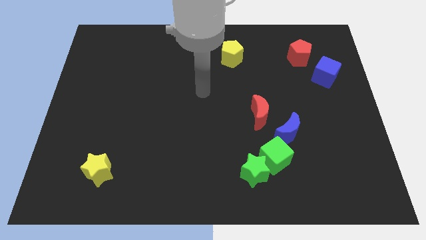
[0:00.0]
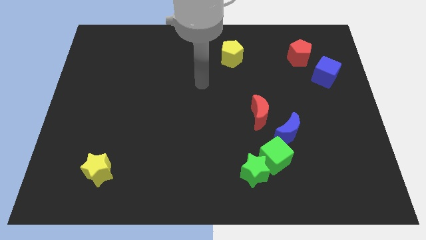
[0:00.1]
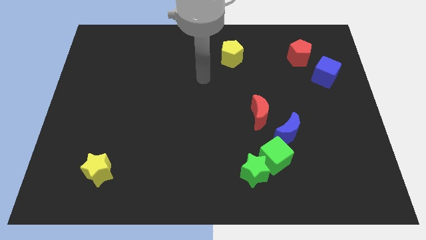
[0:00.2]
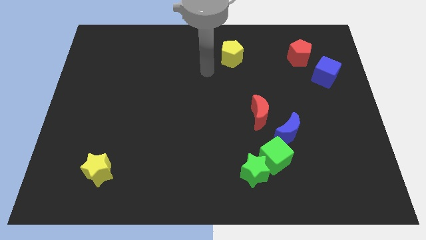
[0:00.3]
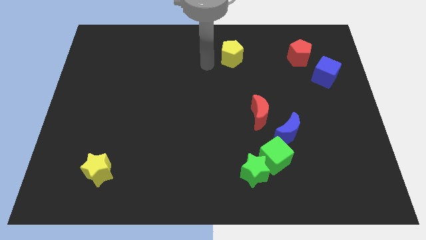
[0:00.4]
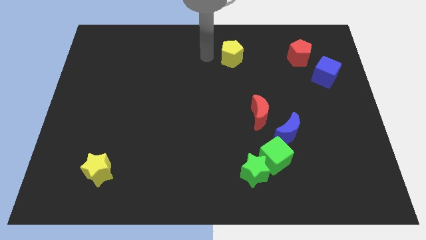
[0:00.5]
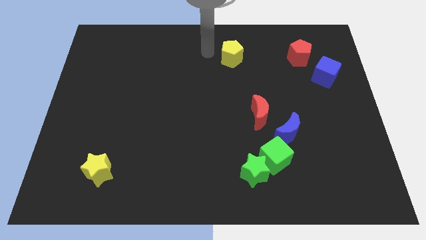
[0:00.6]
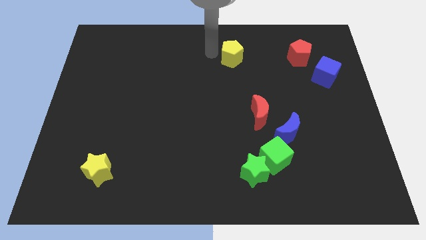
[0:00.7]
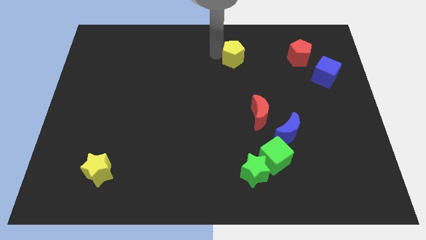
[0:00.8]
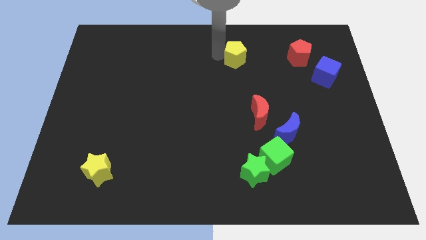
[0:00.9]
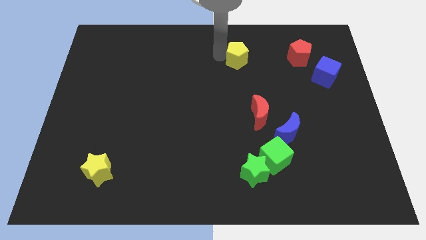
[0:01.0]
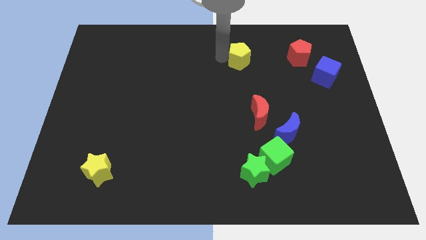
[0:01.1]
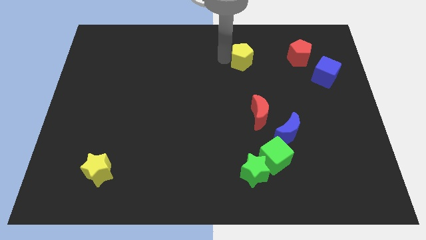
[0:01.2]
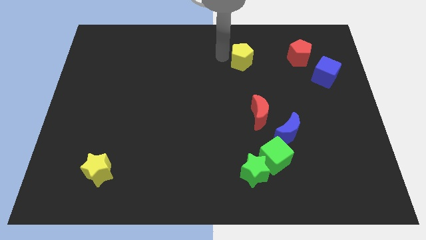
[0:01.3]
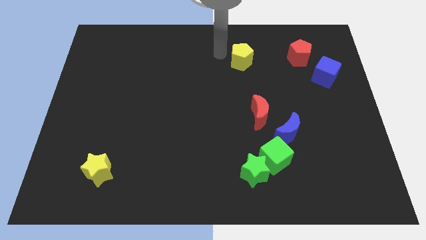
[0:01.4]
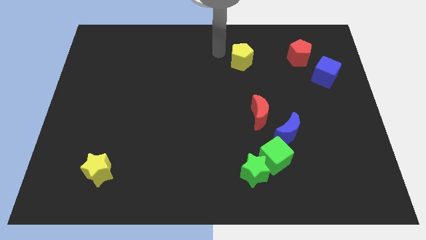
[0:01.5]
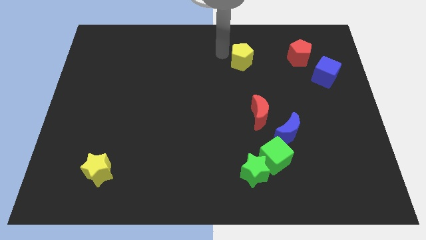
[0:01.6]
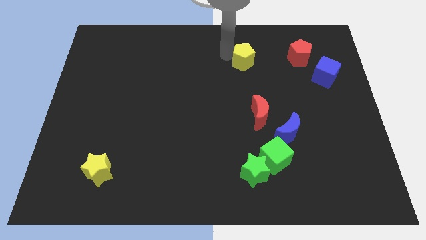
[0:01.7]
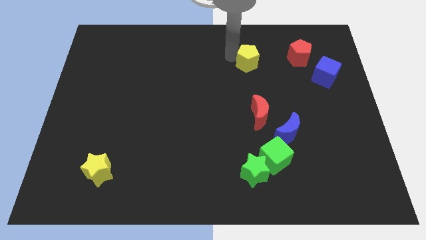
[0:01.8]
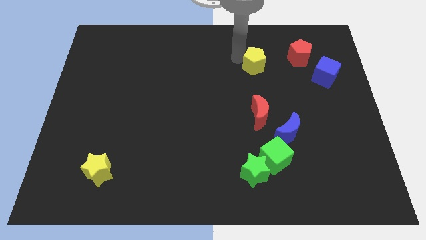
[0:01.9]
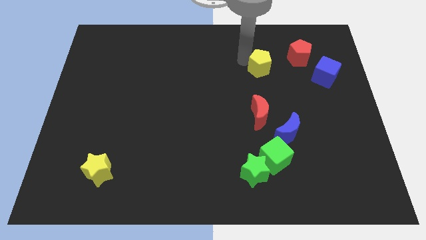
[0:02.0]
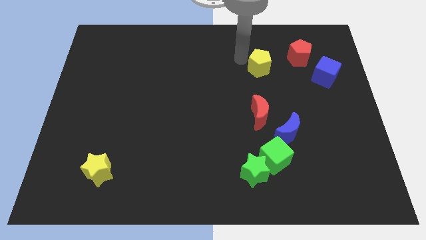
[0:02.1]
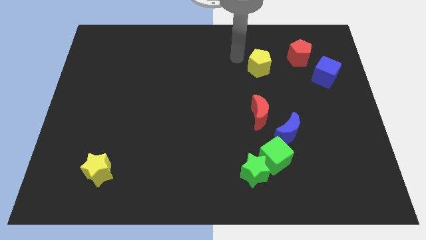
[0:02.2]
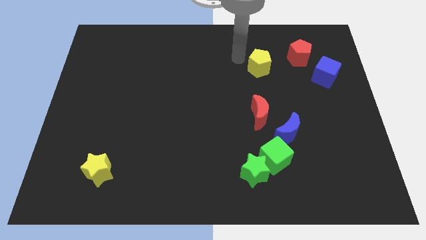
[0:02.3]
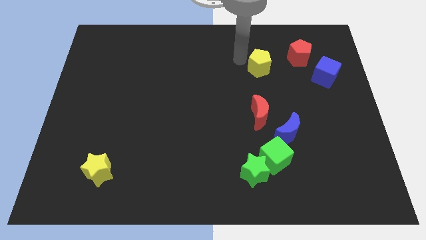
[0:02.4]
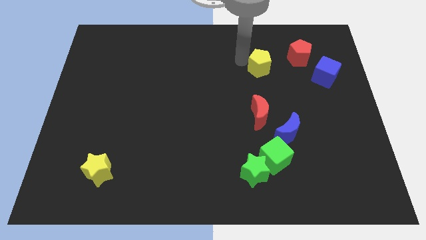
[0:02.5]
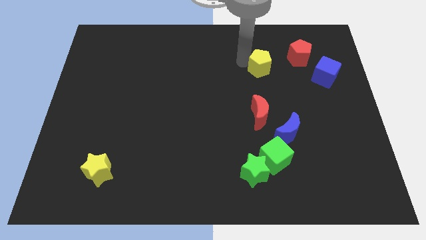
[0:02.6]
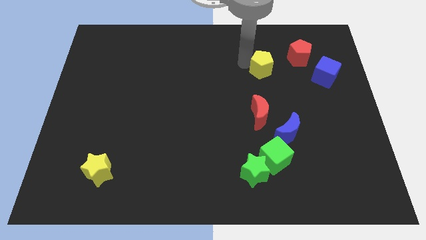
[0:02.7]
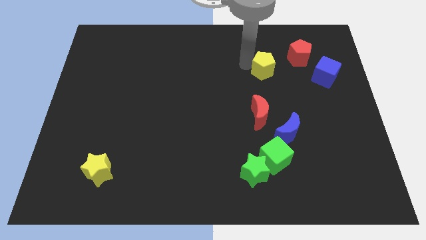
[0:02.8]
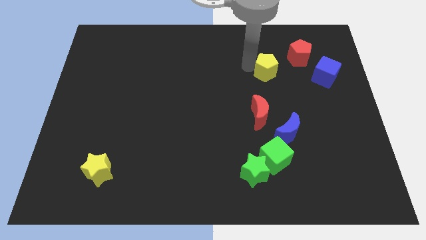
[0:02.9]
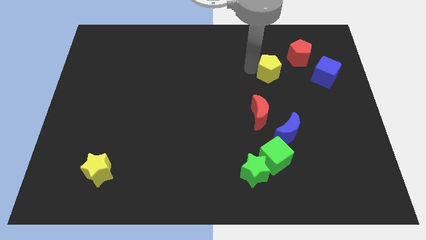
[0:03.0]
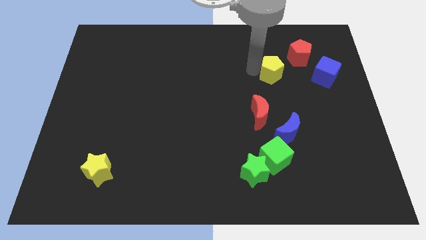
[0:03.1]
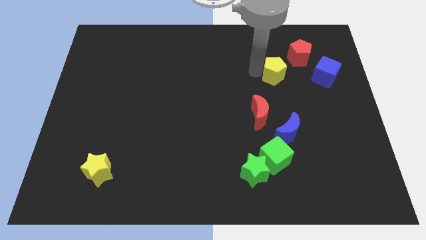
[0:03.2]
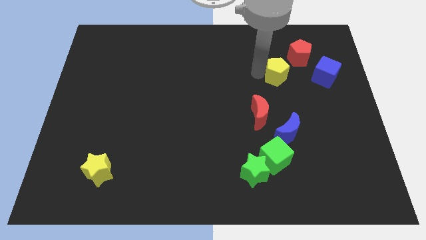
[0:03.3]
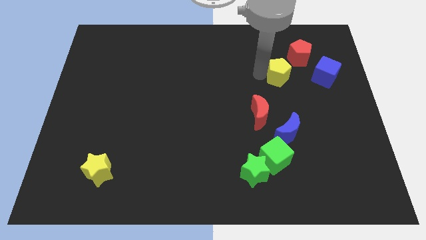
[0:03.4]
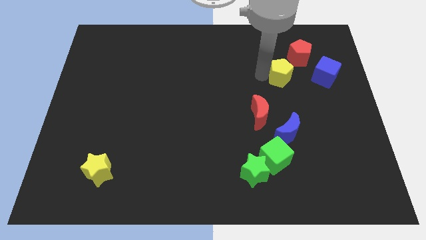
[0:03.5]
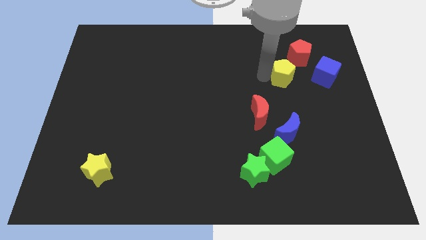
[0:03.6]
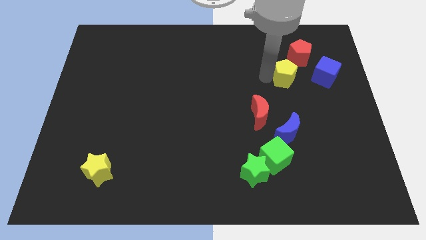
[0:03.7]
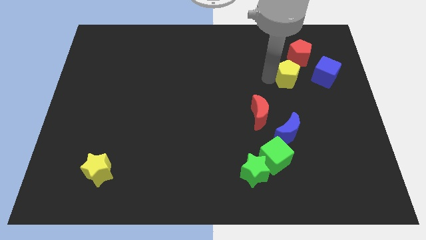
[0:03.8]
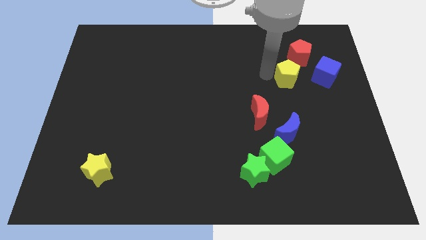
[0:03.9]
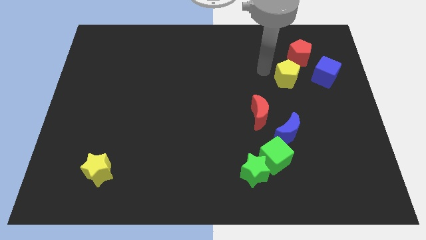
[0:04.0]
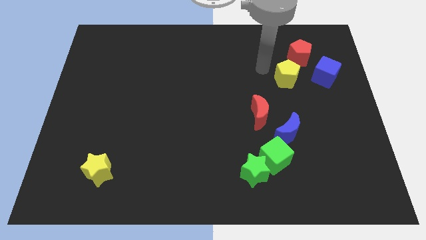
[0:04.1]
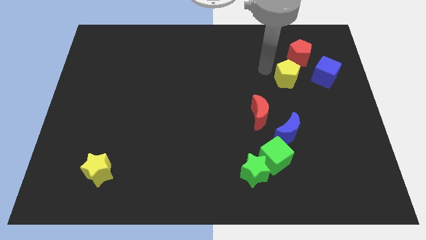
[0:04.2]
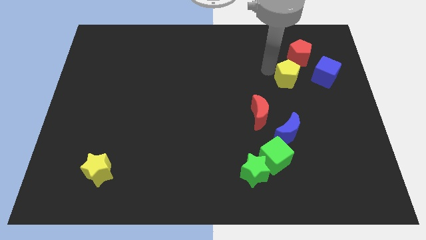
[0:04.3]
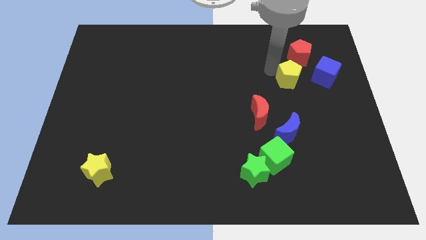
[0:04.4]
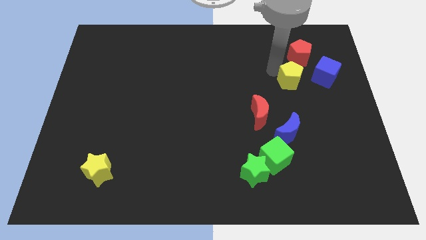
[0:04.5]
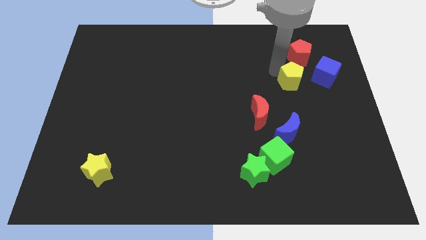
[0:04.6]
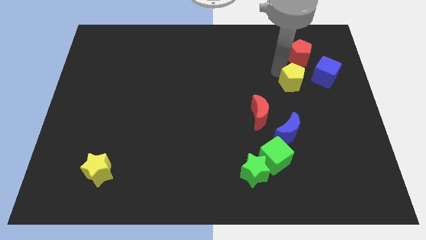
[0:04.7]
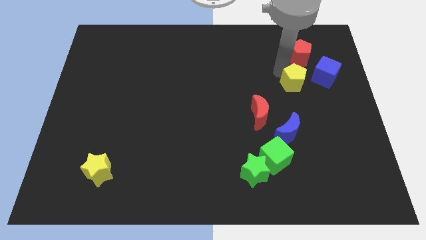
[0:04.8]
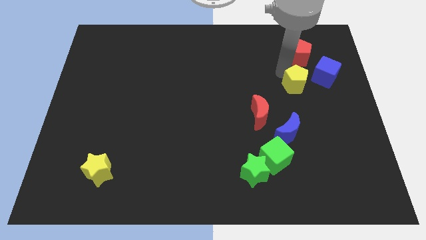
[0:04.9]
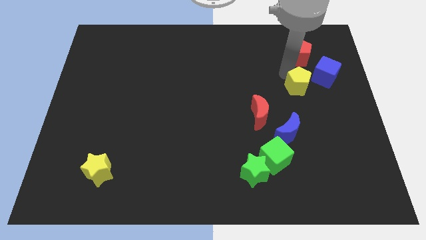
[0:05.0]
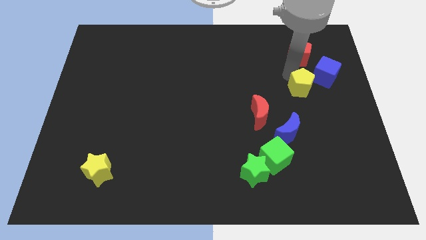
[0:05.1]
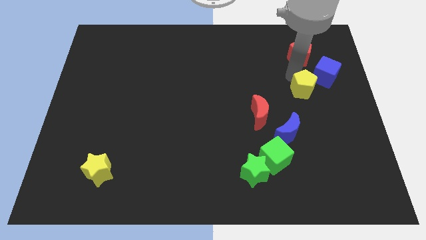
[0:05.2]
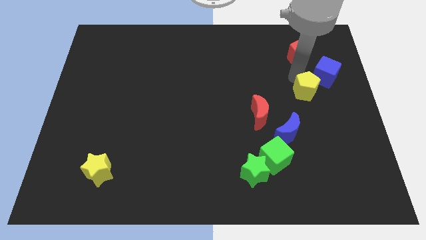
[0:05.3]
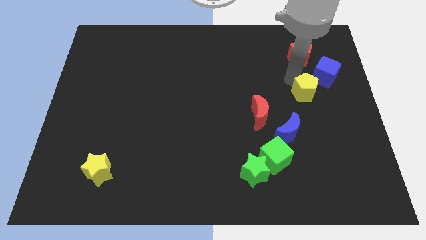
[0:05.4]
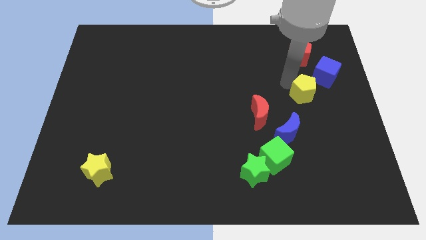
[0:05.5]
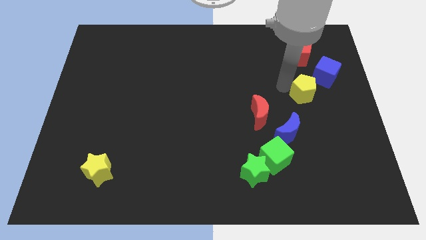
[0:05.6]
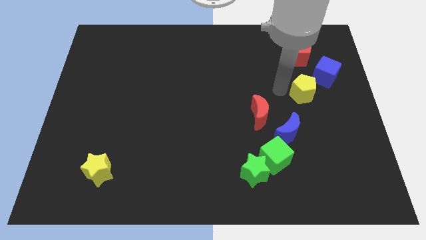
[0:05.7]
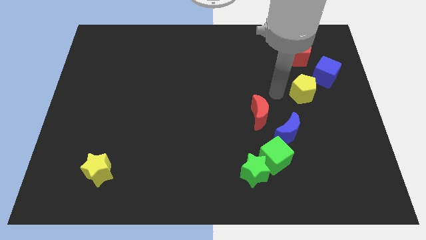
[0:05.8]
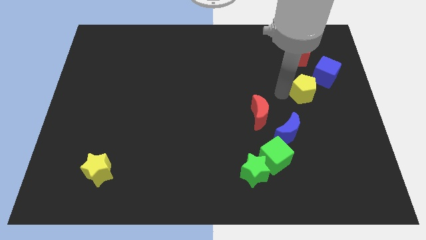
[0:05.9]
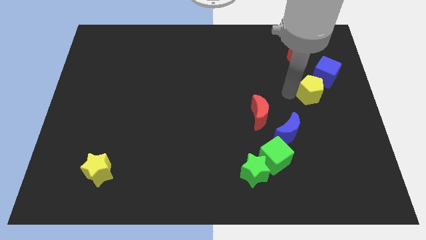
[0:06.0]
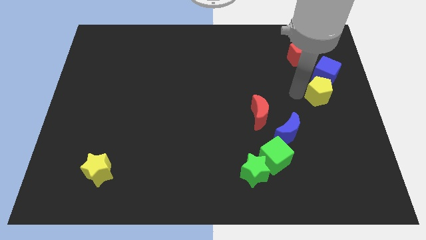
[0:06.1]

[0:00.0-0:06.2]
move the yellow pentagon to the center right

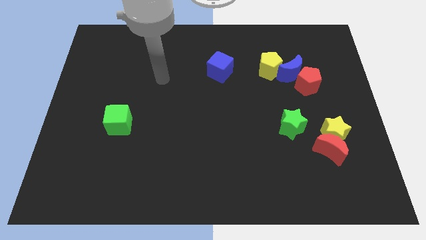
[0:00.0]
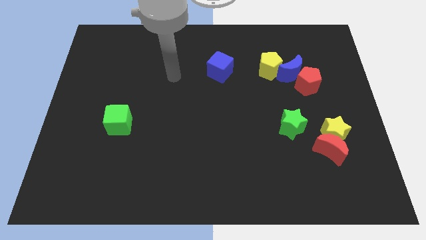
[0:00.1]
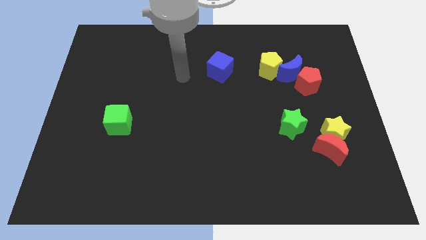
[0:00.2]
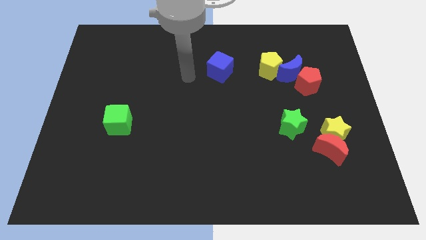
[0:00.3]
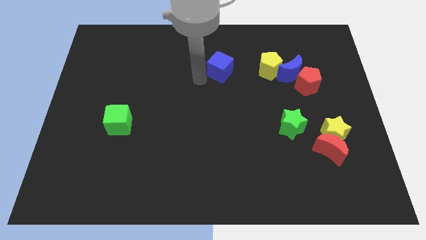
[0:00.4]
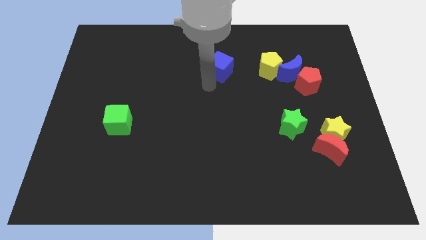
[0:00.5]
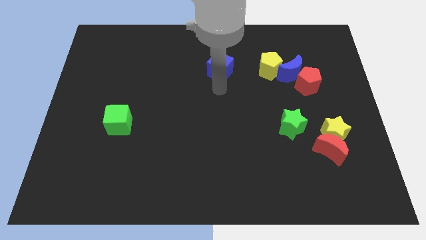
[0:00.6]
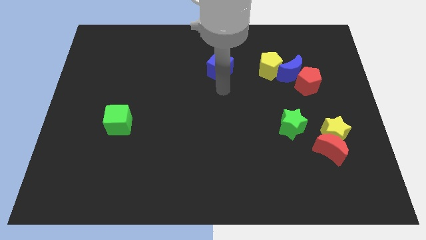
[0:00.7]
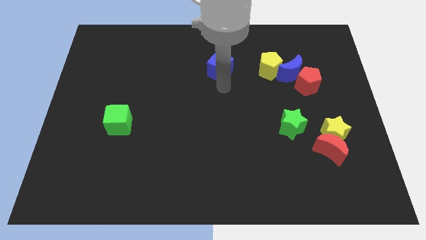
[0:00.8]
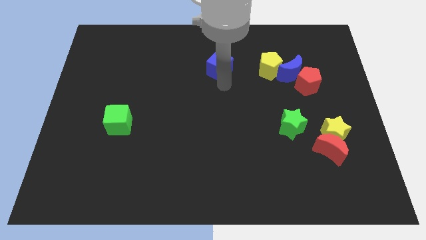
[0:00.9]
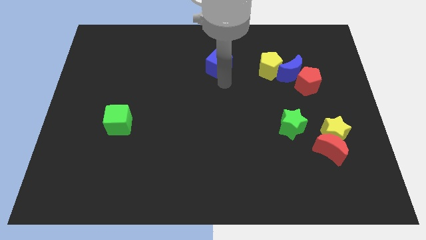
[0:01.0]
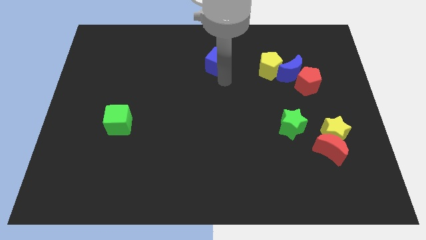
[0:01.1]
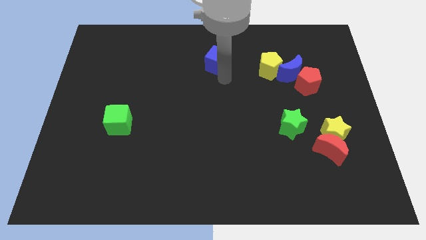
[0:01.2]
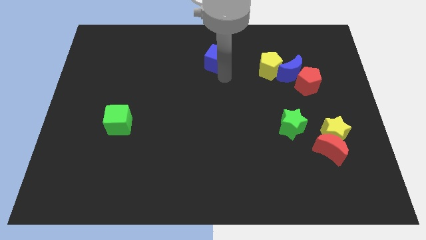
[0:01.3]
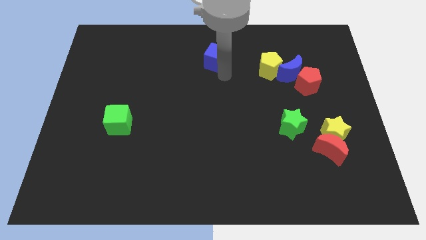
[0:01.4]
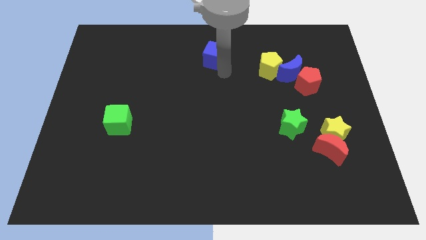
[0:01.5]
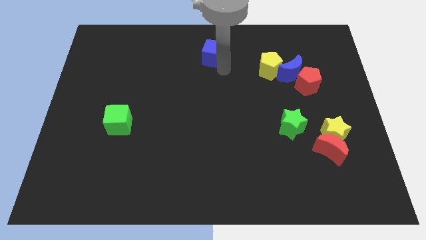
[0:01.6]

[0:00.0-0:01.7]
move the blue cube to the towards your base
